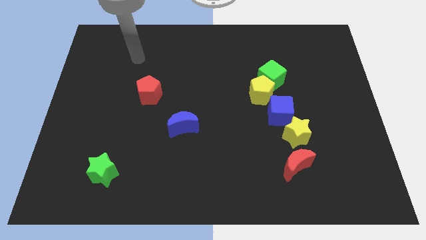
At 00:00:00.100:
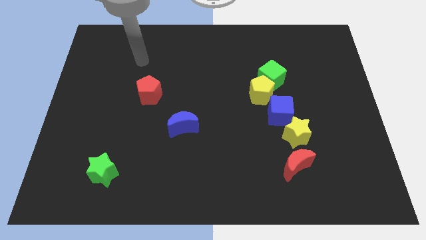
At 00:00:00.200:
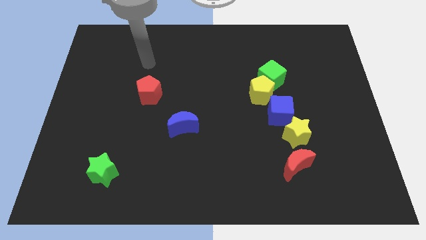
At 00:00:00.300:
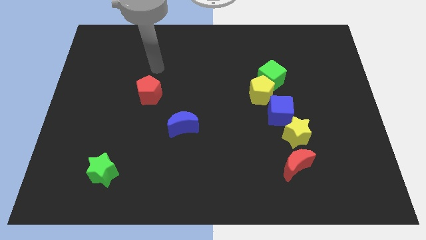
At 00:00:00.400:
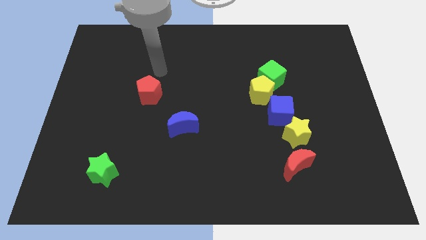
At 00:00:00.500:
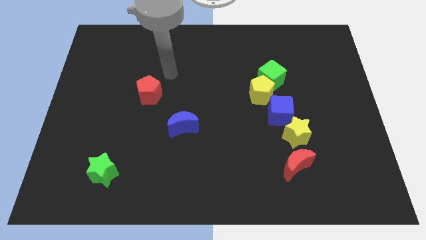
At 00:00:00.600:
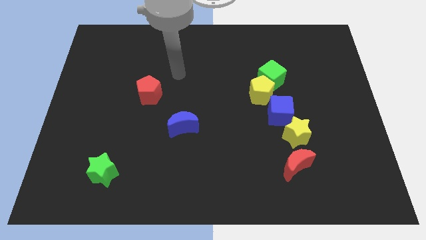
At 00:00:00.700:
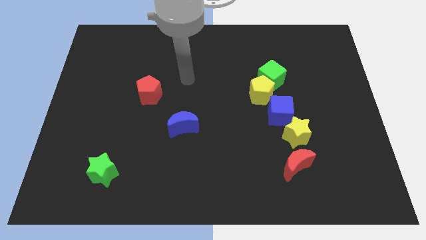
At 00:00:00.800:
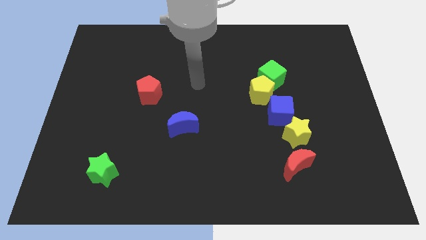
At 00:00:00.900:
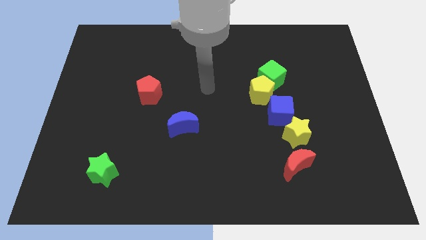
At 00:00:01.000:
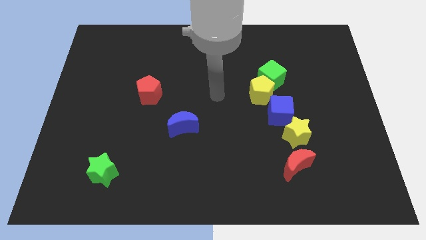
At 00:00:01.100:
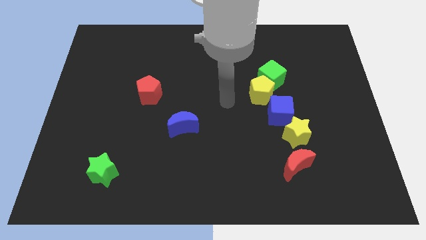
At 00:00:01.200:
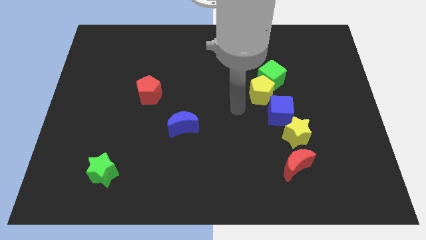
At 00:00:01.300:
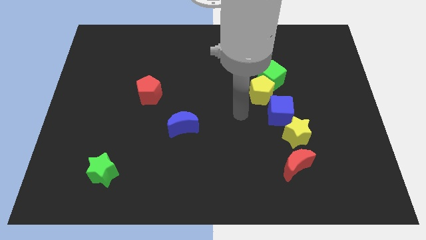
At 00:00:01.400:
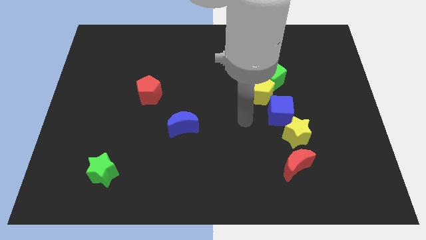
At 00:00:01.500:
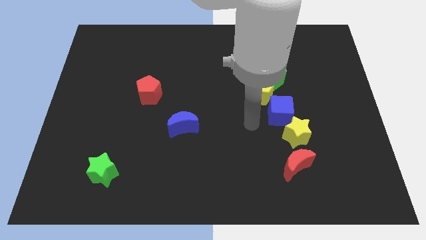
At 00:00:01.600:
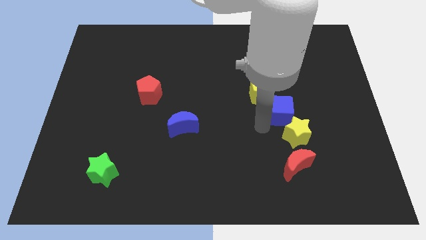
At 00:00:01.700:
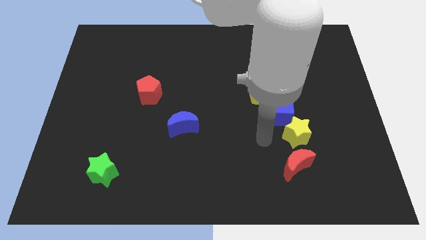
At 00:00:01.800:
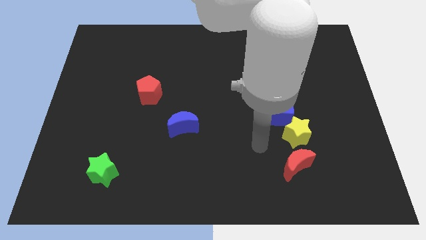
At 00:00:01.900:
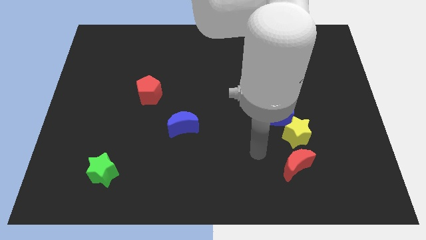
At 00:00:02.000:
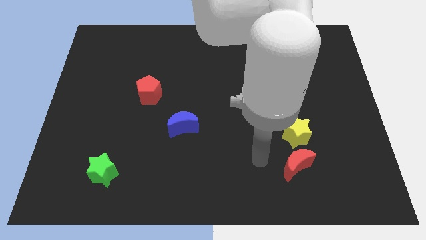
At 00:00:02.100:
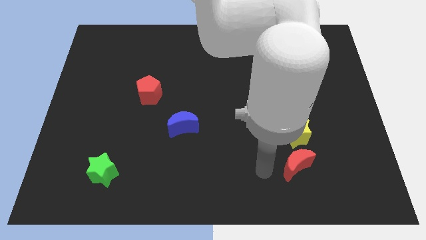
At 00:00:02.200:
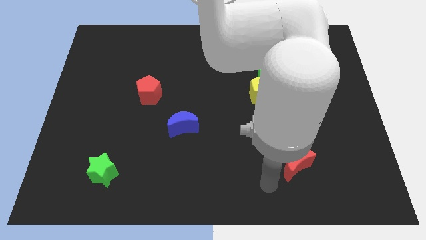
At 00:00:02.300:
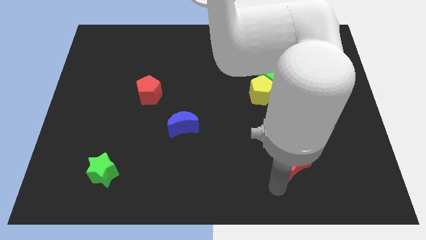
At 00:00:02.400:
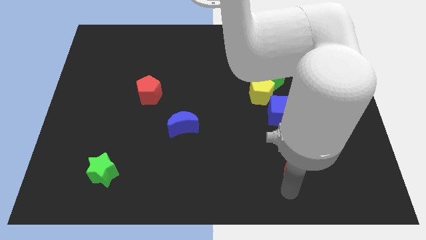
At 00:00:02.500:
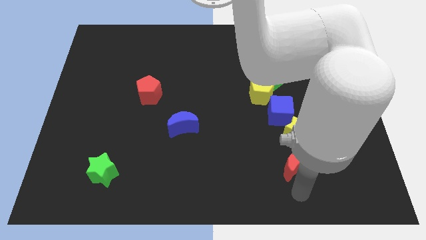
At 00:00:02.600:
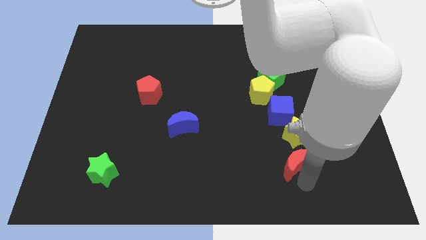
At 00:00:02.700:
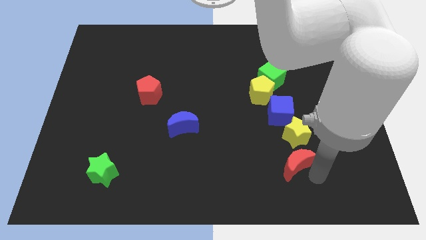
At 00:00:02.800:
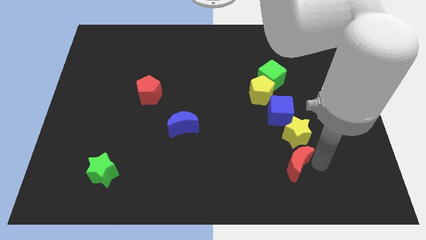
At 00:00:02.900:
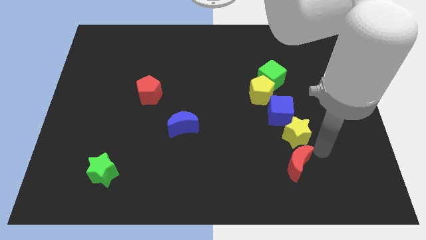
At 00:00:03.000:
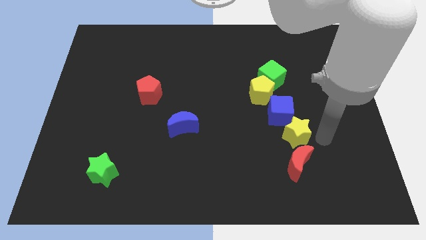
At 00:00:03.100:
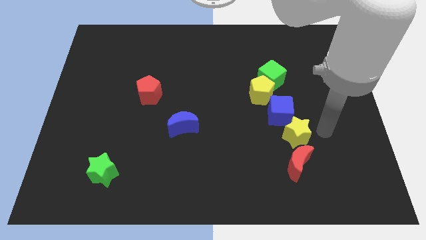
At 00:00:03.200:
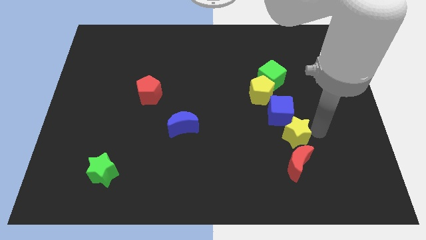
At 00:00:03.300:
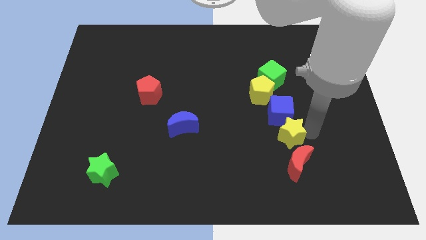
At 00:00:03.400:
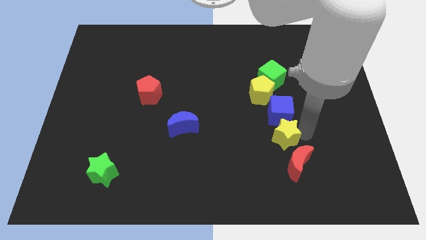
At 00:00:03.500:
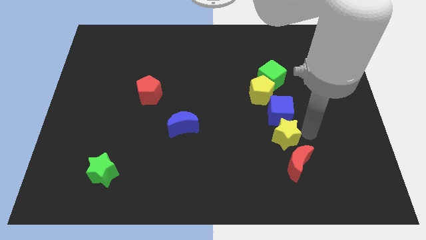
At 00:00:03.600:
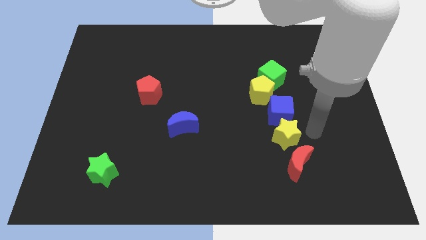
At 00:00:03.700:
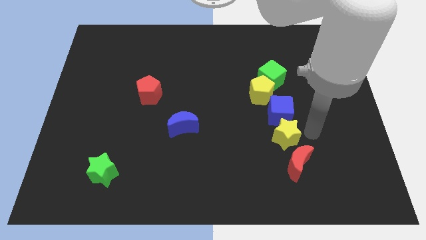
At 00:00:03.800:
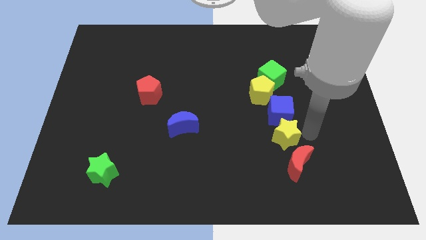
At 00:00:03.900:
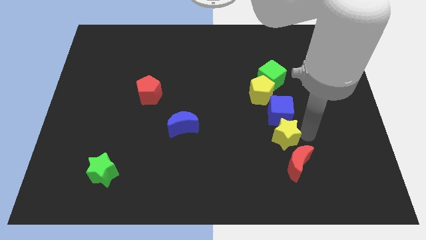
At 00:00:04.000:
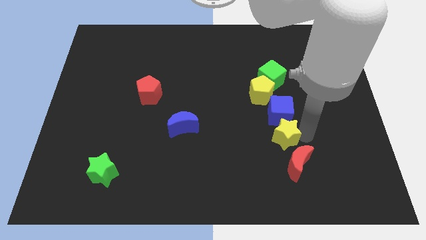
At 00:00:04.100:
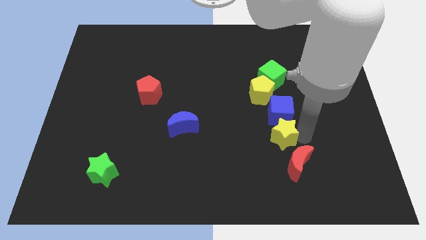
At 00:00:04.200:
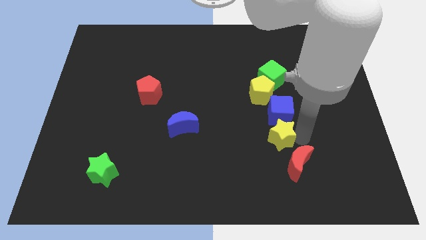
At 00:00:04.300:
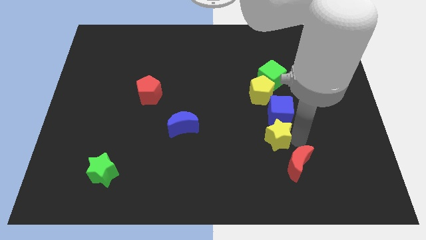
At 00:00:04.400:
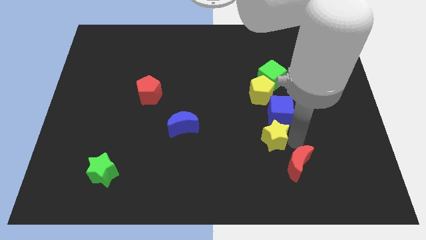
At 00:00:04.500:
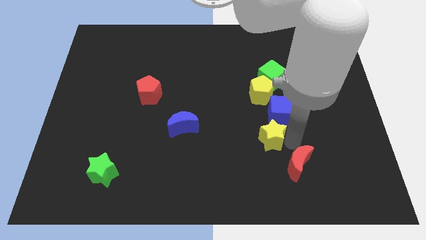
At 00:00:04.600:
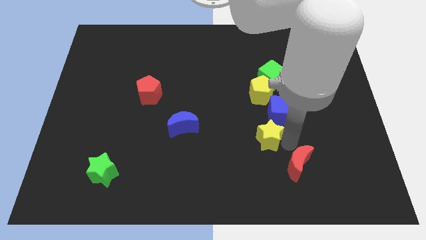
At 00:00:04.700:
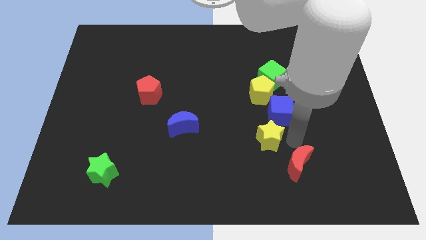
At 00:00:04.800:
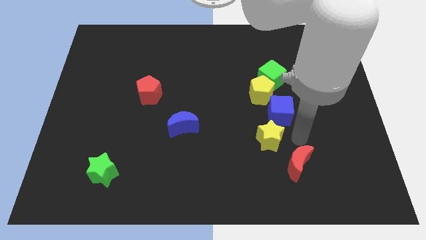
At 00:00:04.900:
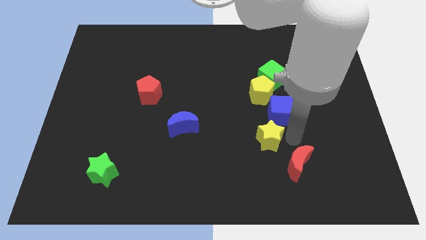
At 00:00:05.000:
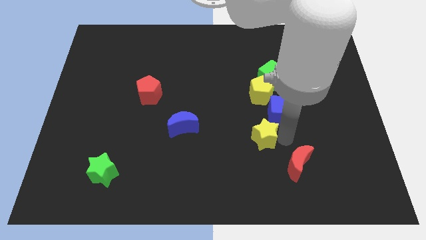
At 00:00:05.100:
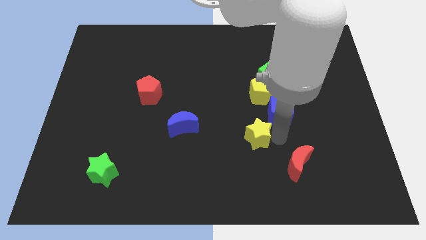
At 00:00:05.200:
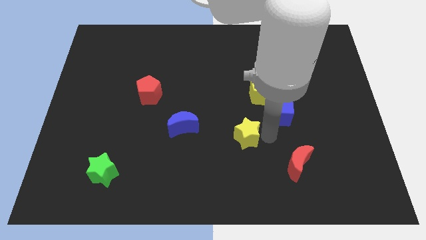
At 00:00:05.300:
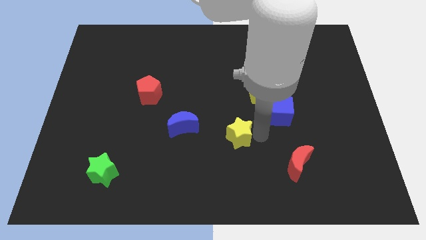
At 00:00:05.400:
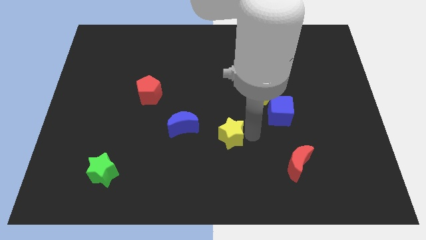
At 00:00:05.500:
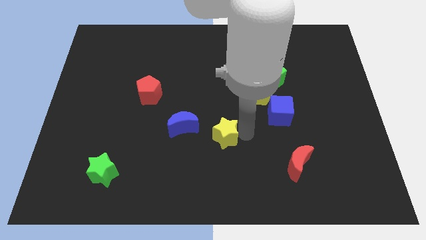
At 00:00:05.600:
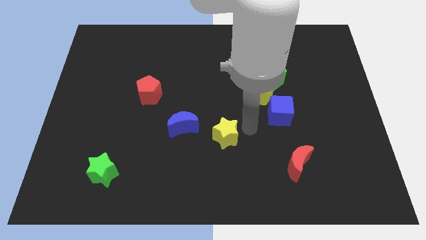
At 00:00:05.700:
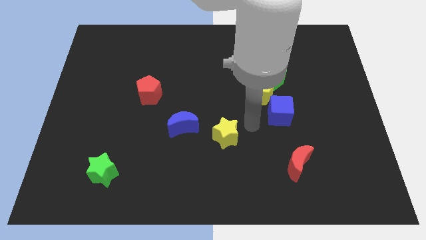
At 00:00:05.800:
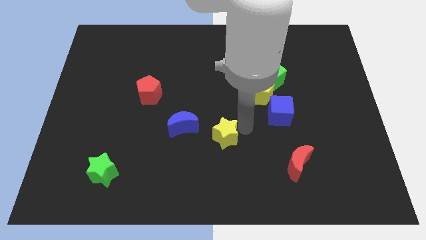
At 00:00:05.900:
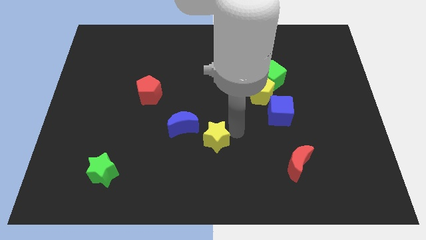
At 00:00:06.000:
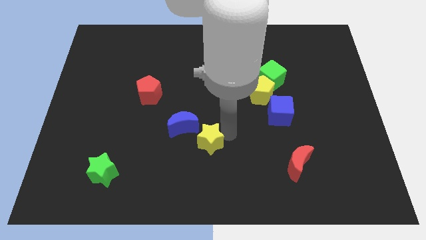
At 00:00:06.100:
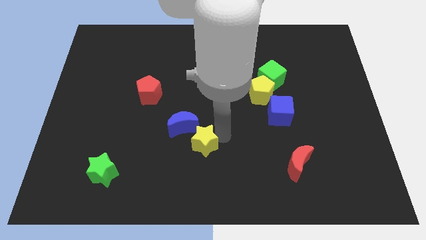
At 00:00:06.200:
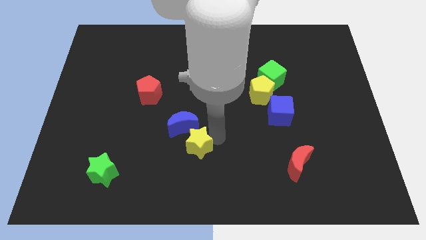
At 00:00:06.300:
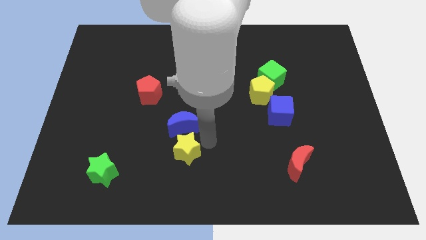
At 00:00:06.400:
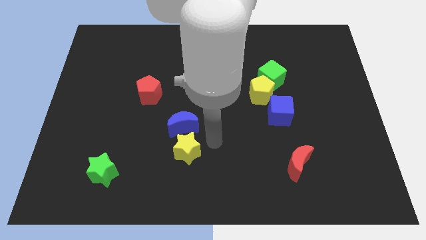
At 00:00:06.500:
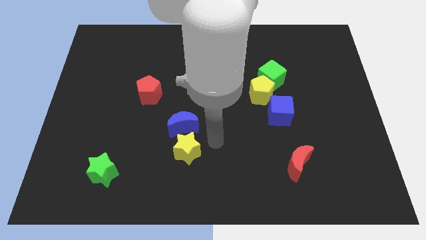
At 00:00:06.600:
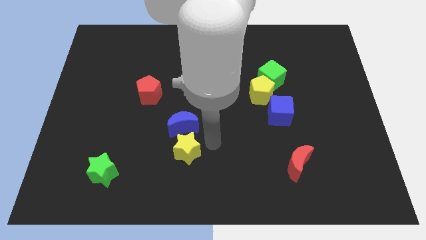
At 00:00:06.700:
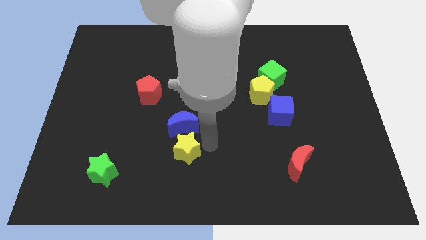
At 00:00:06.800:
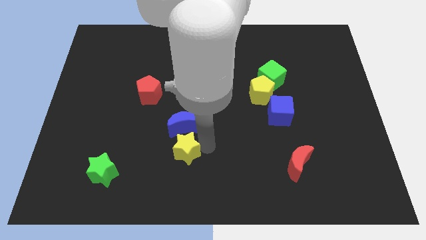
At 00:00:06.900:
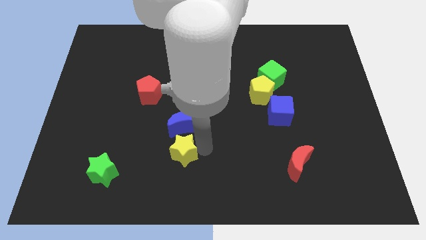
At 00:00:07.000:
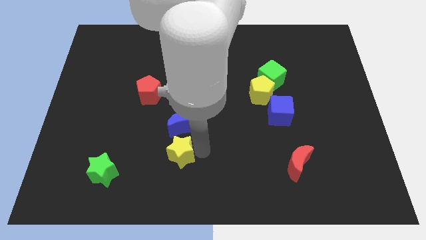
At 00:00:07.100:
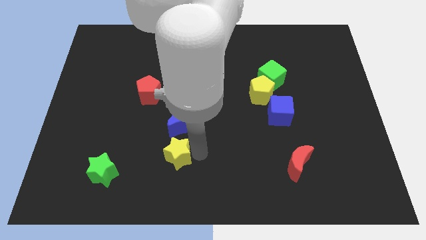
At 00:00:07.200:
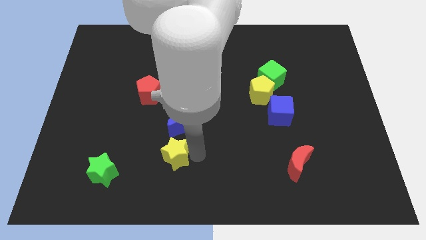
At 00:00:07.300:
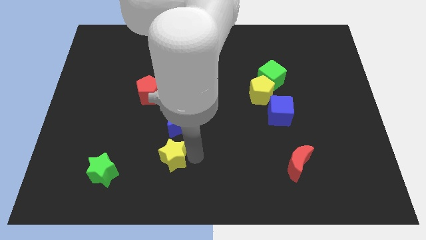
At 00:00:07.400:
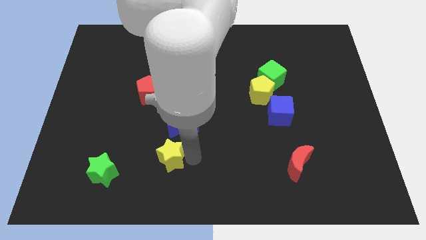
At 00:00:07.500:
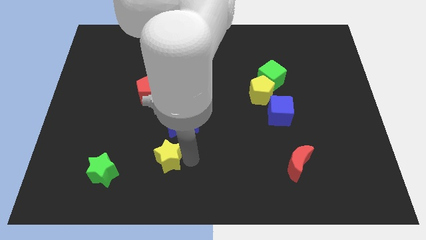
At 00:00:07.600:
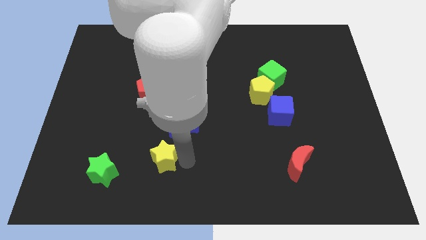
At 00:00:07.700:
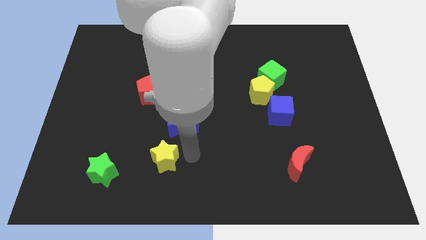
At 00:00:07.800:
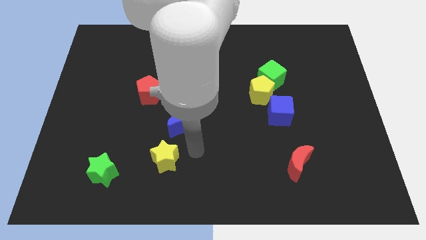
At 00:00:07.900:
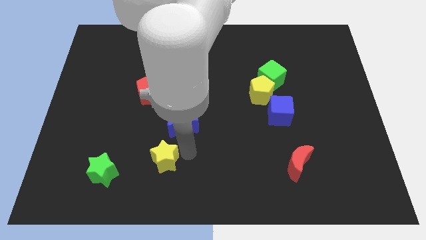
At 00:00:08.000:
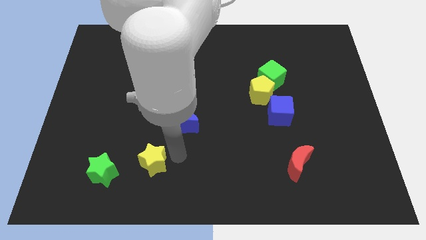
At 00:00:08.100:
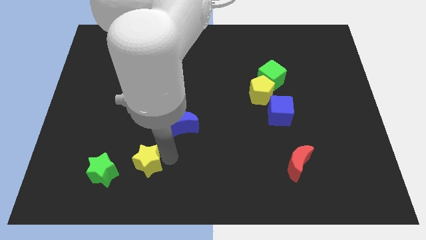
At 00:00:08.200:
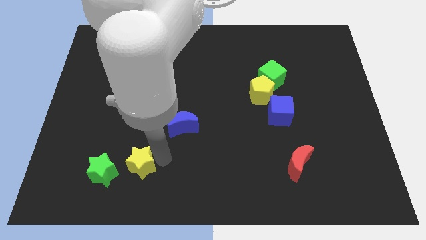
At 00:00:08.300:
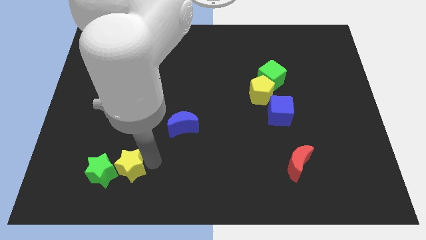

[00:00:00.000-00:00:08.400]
slide the yellow star to the green star
